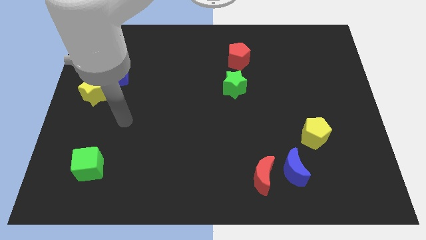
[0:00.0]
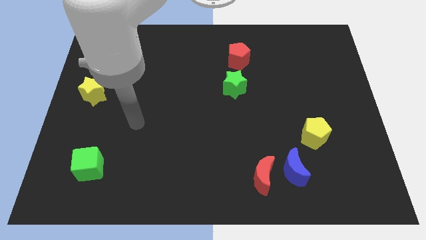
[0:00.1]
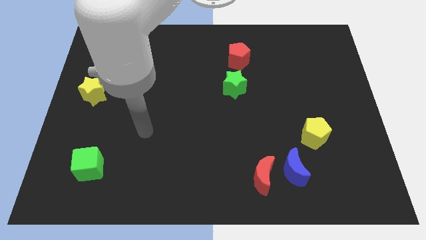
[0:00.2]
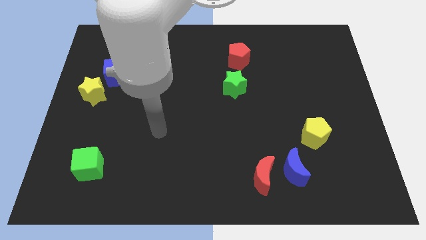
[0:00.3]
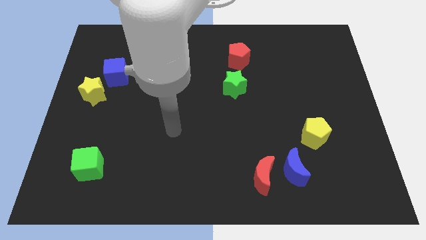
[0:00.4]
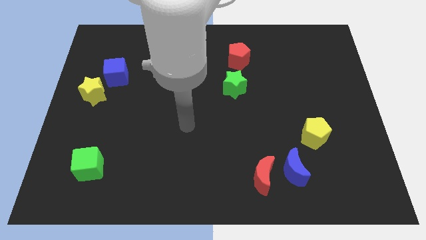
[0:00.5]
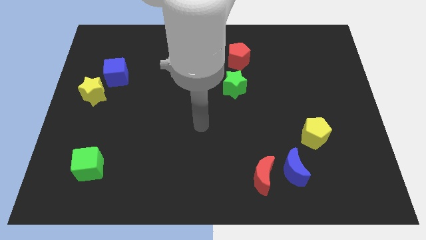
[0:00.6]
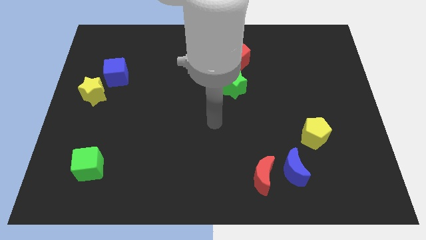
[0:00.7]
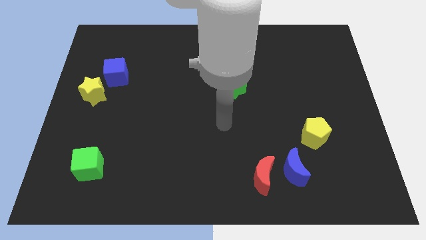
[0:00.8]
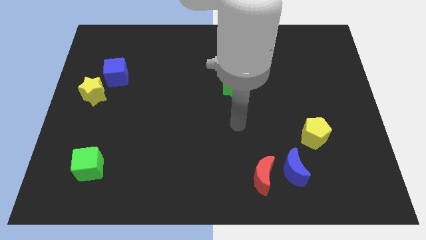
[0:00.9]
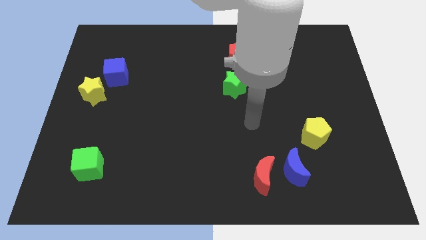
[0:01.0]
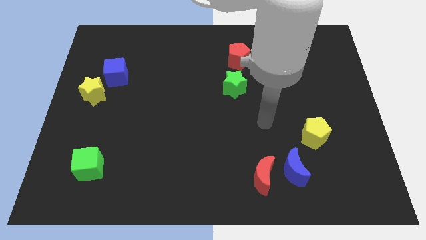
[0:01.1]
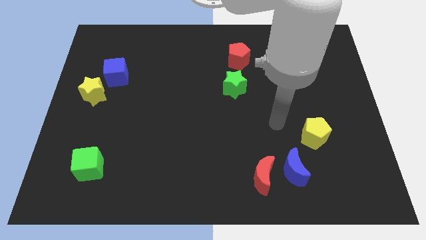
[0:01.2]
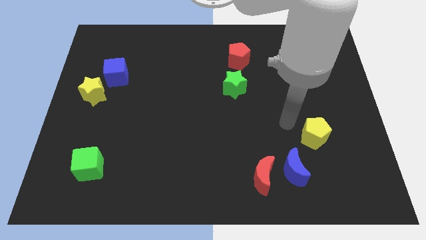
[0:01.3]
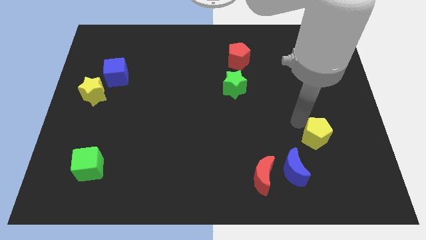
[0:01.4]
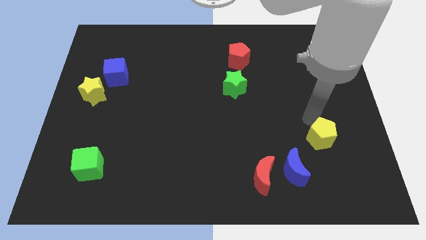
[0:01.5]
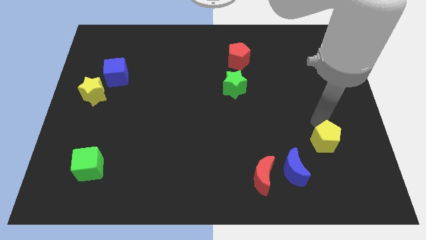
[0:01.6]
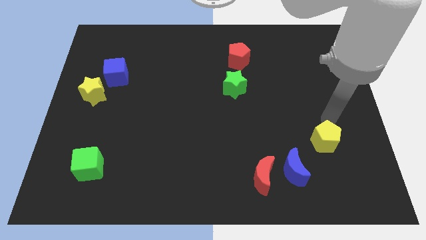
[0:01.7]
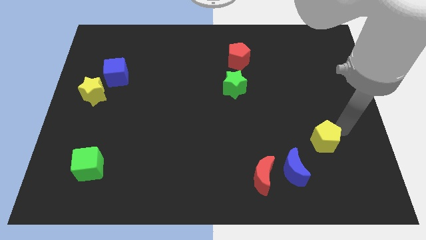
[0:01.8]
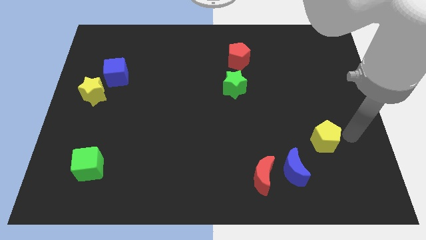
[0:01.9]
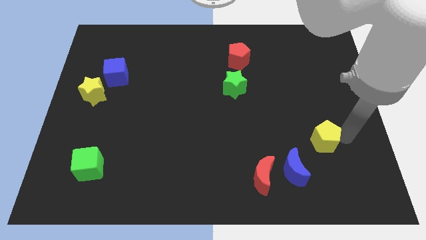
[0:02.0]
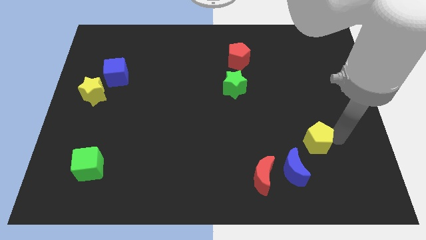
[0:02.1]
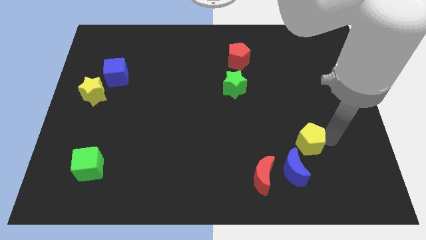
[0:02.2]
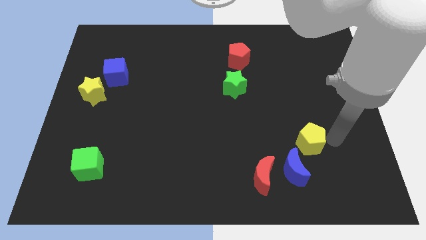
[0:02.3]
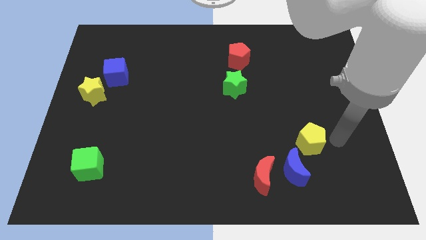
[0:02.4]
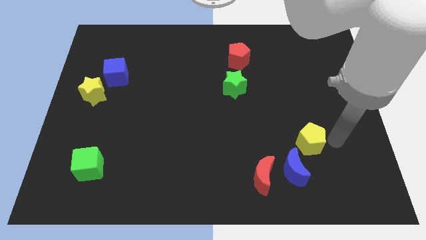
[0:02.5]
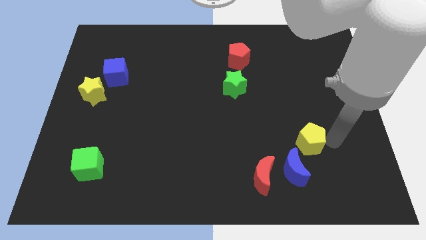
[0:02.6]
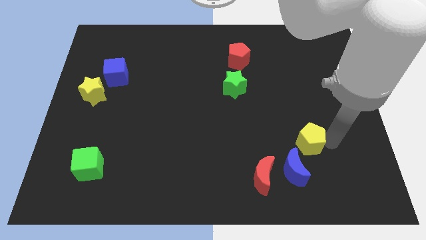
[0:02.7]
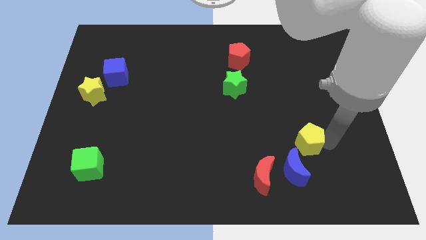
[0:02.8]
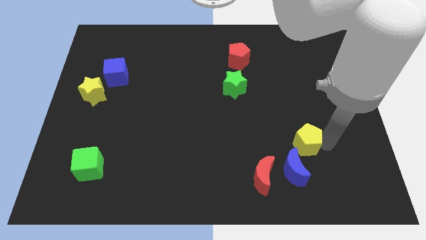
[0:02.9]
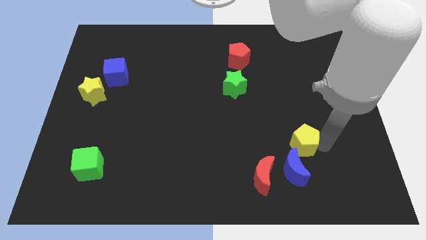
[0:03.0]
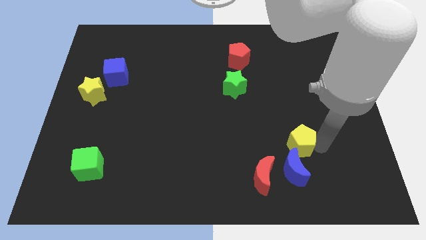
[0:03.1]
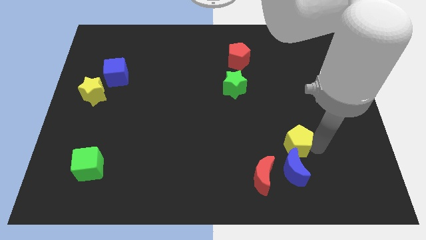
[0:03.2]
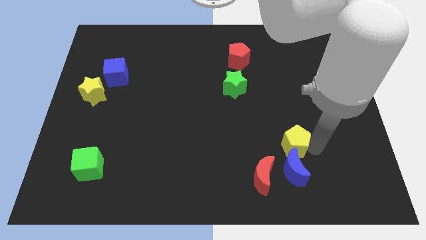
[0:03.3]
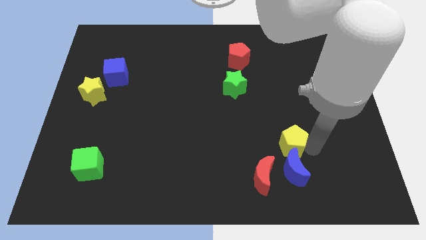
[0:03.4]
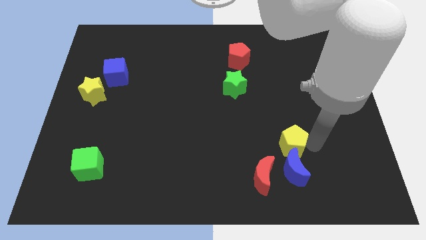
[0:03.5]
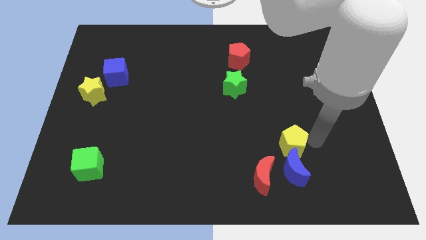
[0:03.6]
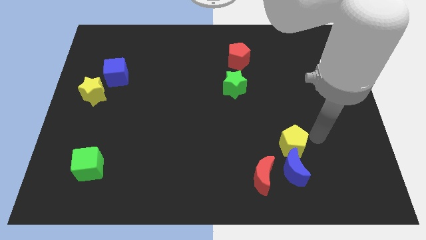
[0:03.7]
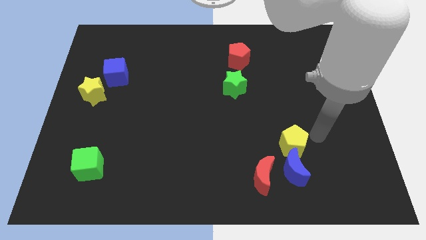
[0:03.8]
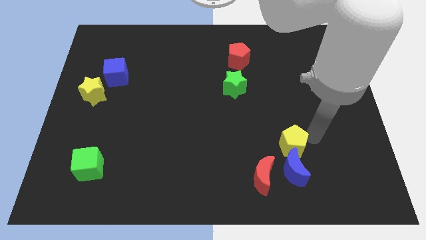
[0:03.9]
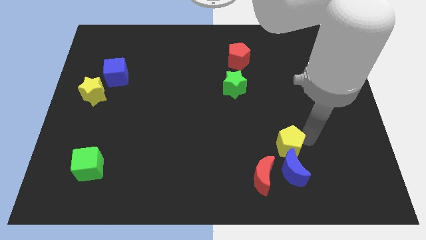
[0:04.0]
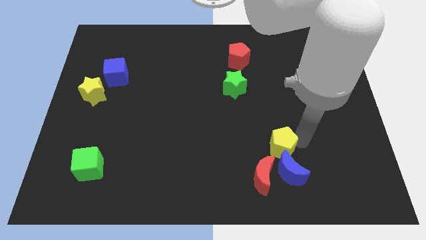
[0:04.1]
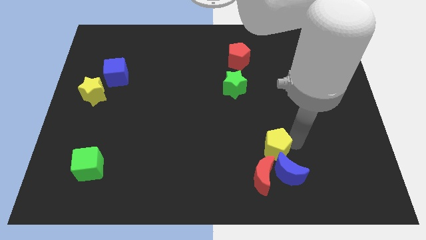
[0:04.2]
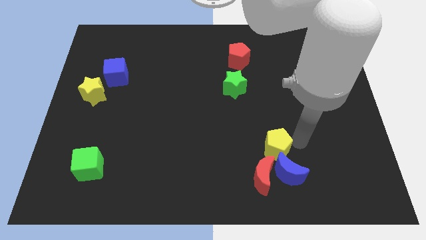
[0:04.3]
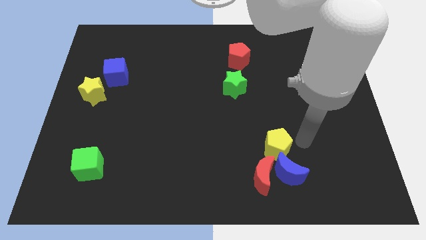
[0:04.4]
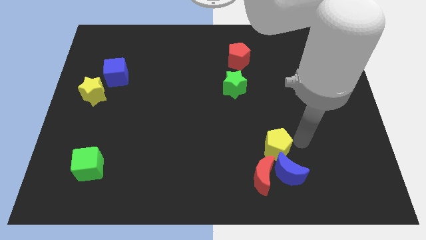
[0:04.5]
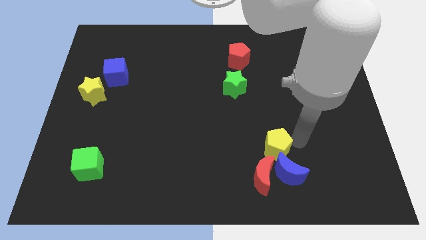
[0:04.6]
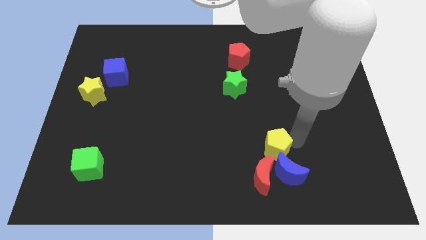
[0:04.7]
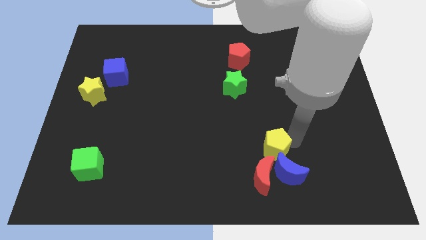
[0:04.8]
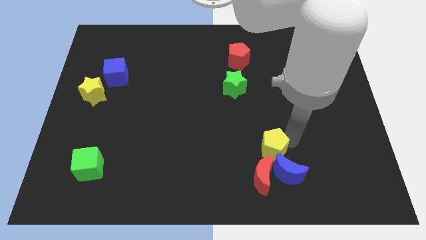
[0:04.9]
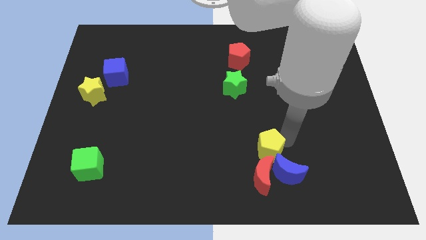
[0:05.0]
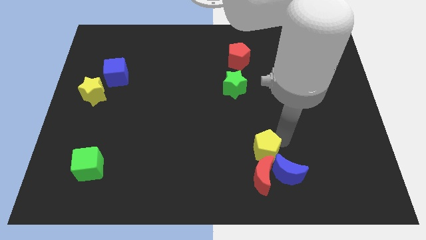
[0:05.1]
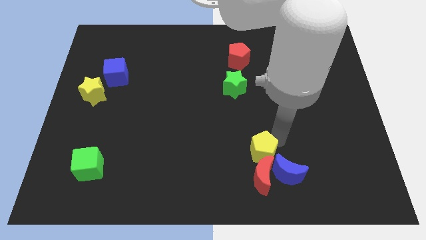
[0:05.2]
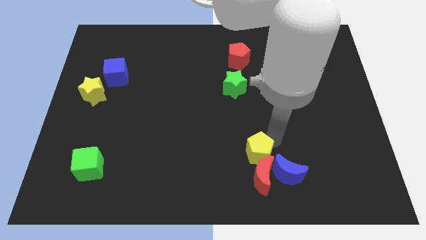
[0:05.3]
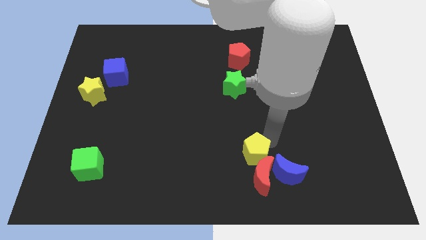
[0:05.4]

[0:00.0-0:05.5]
slide the yellow pentagon to the left of the blue moon

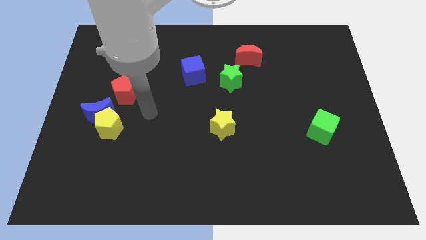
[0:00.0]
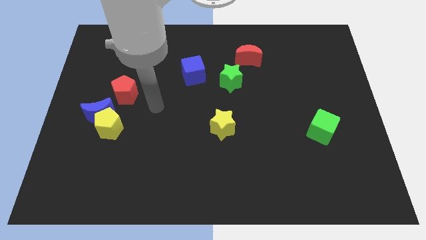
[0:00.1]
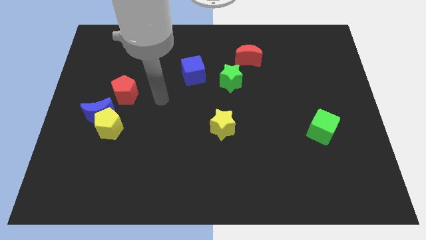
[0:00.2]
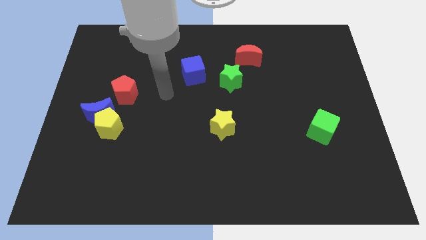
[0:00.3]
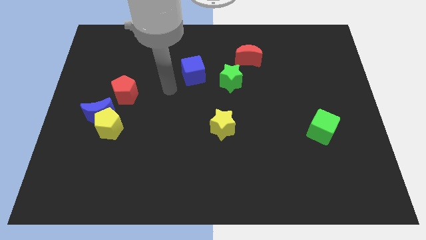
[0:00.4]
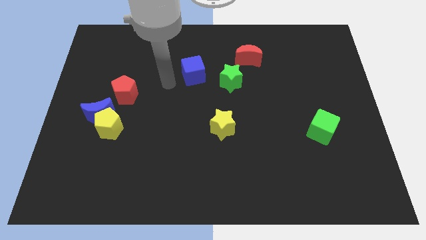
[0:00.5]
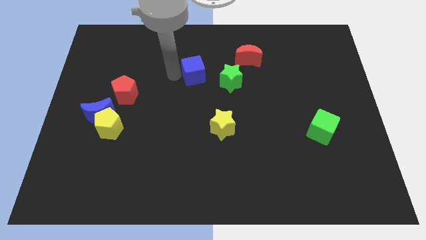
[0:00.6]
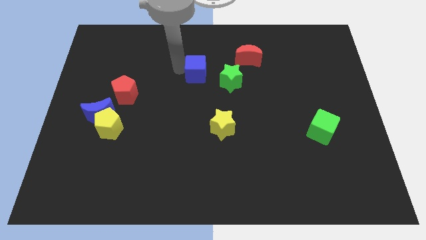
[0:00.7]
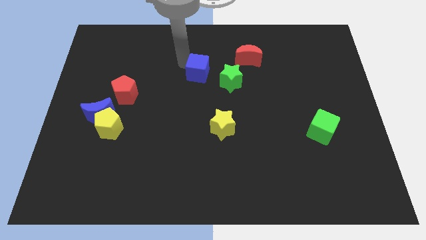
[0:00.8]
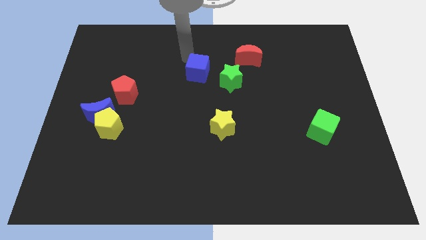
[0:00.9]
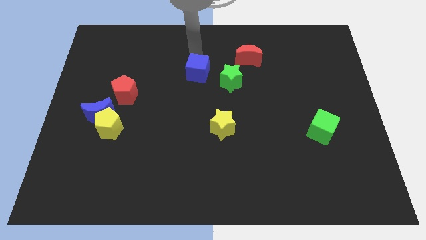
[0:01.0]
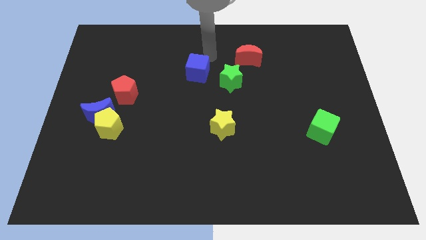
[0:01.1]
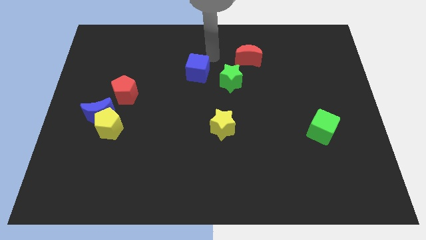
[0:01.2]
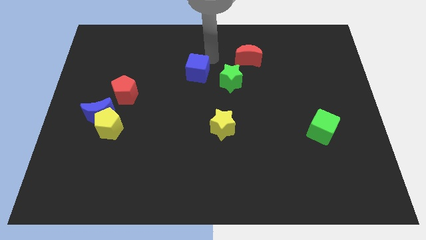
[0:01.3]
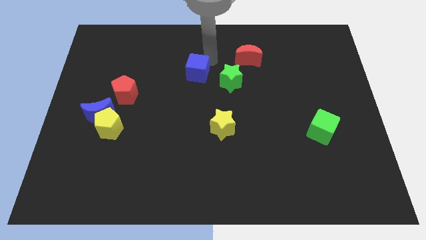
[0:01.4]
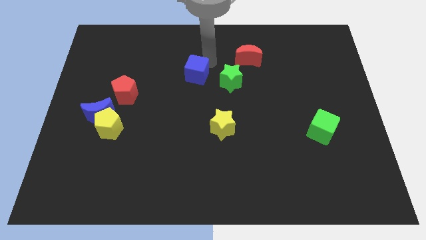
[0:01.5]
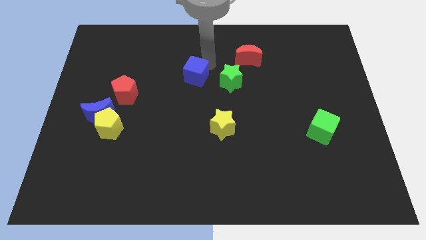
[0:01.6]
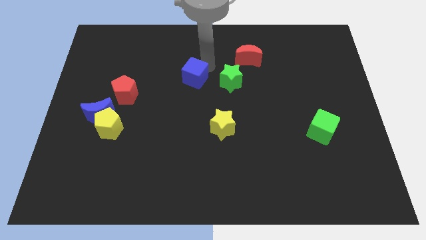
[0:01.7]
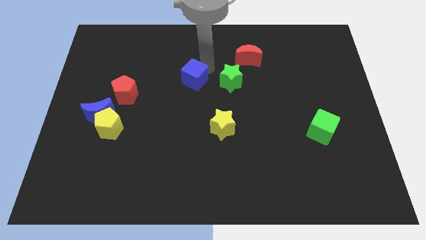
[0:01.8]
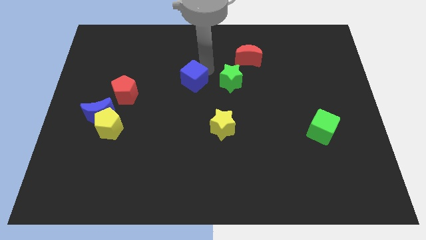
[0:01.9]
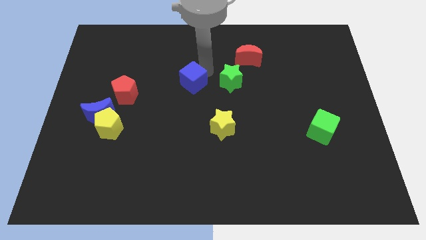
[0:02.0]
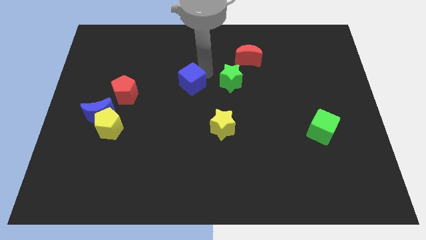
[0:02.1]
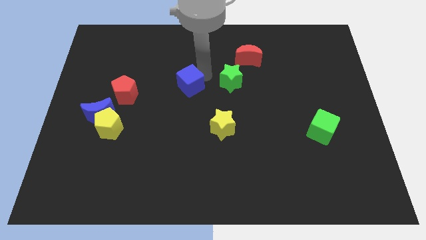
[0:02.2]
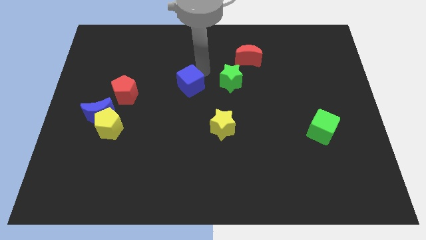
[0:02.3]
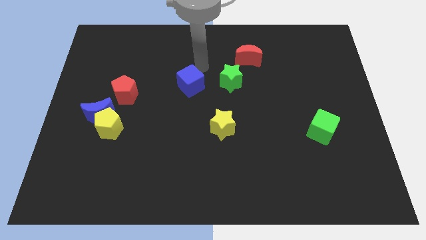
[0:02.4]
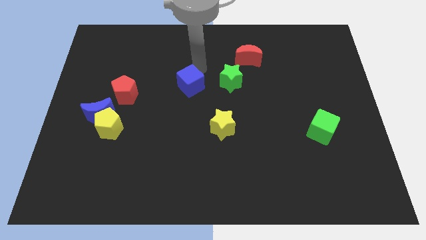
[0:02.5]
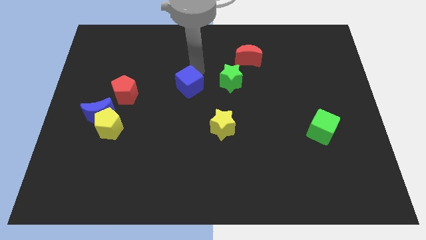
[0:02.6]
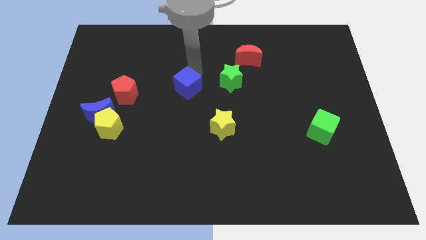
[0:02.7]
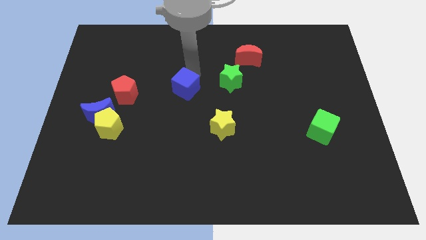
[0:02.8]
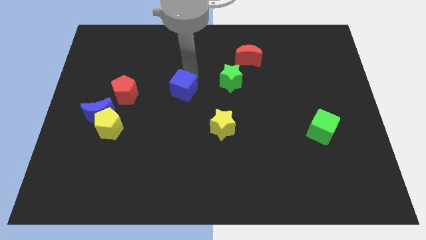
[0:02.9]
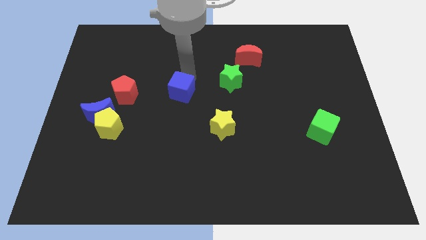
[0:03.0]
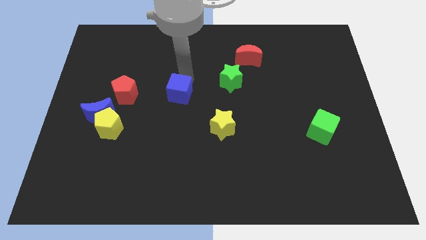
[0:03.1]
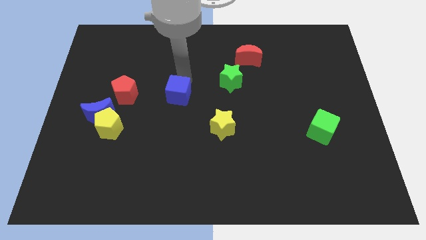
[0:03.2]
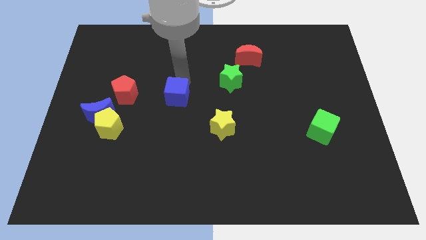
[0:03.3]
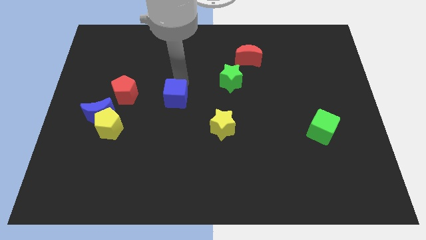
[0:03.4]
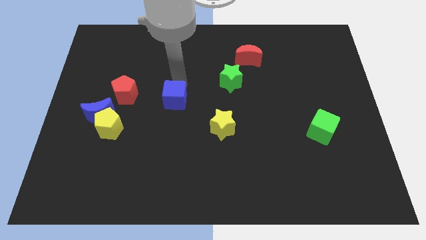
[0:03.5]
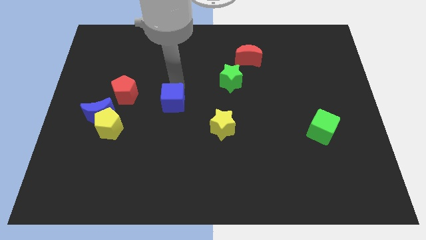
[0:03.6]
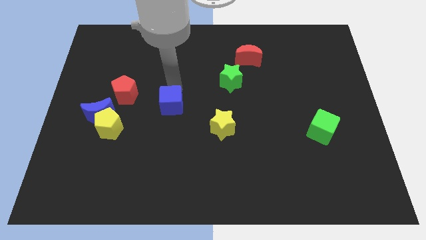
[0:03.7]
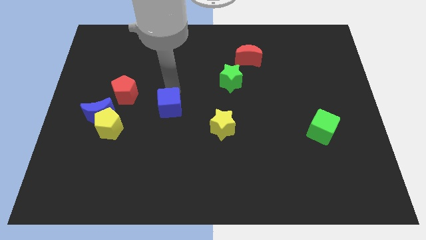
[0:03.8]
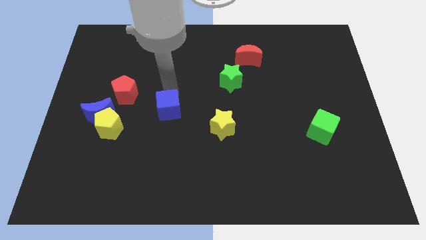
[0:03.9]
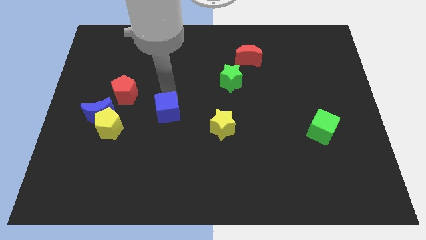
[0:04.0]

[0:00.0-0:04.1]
push the blue cube to the left side of the yellow star
